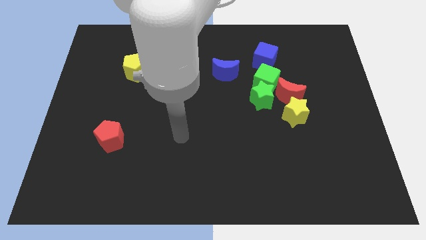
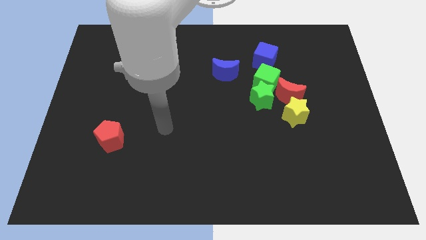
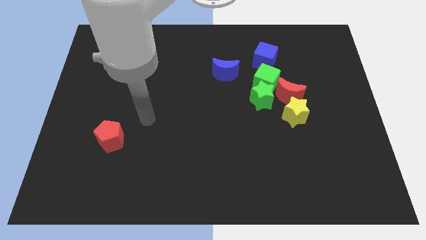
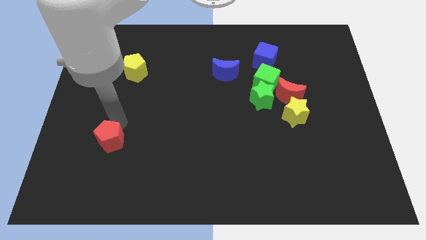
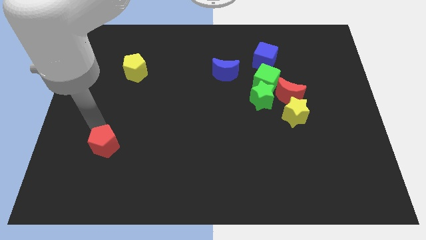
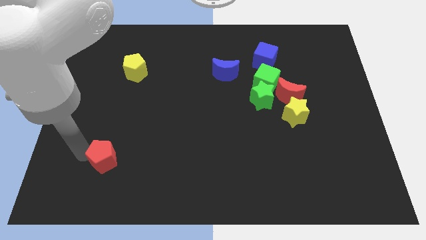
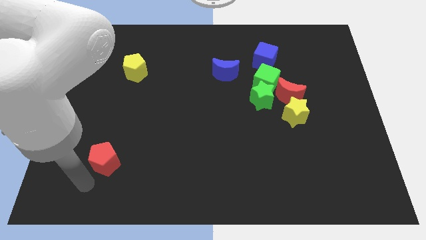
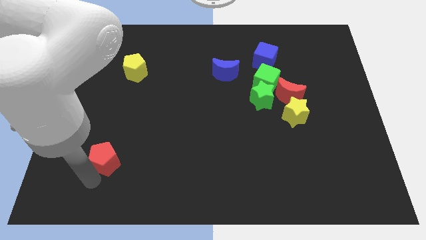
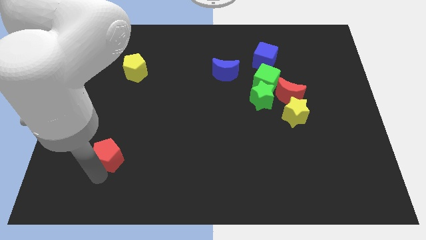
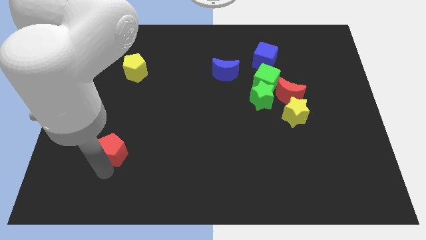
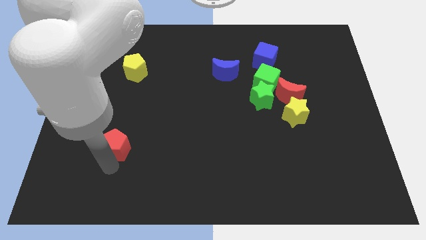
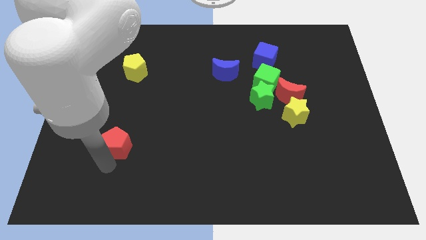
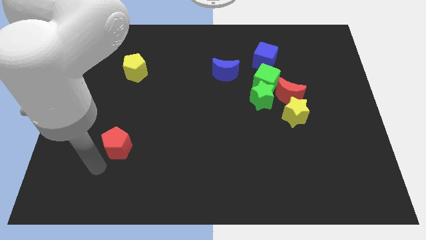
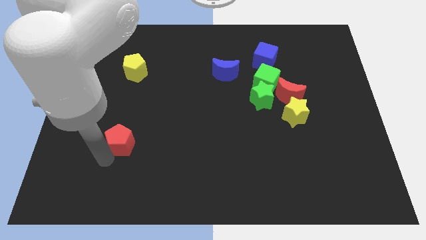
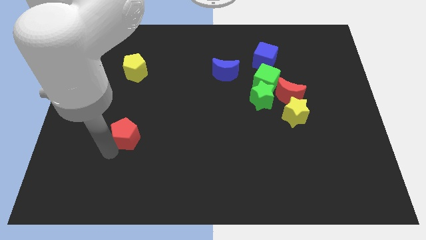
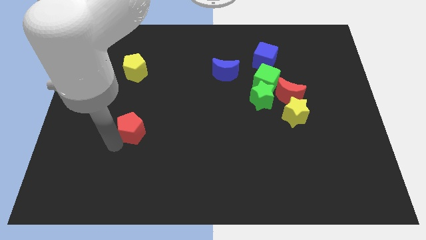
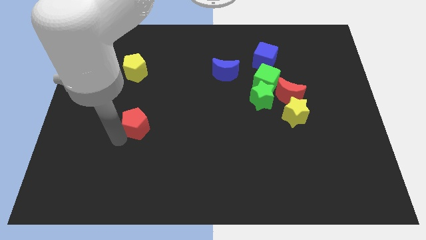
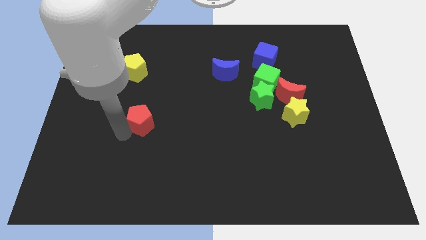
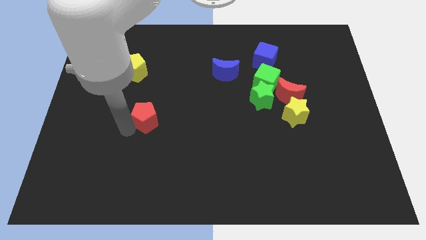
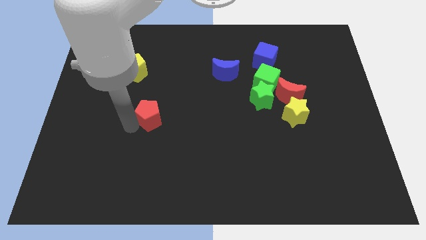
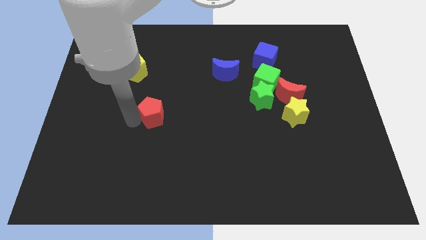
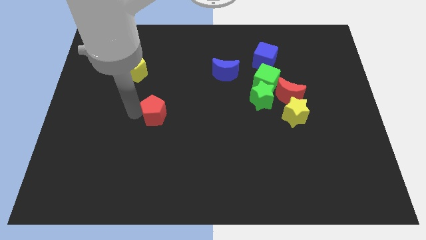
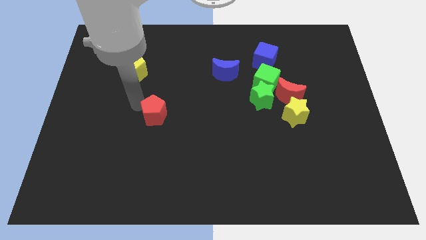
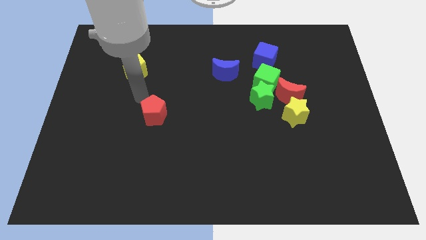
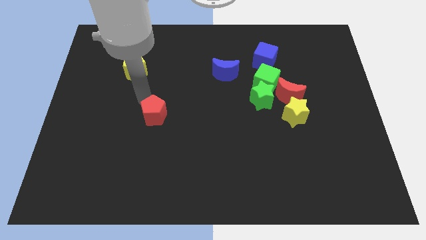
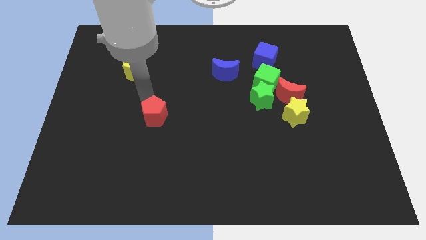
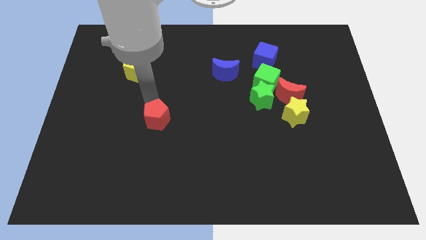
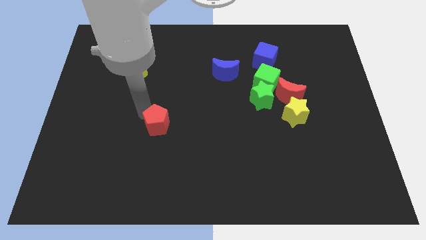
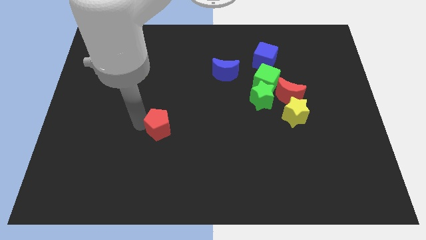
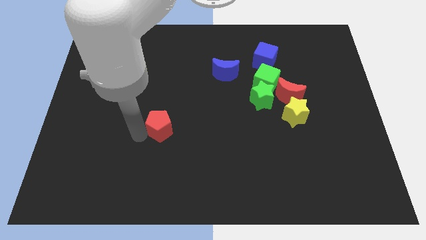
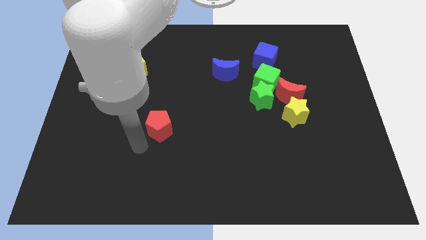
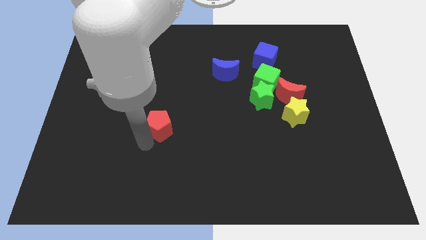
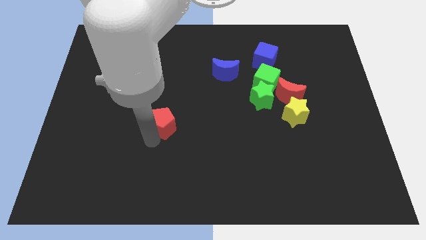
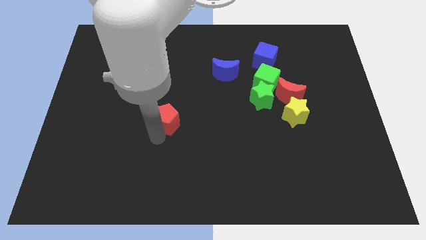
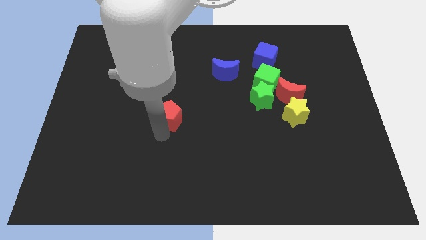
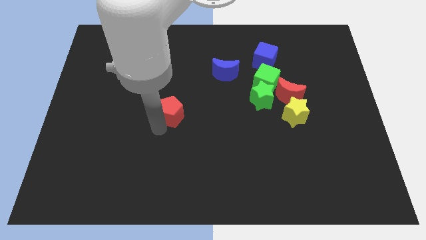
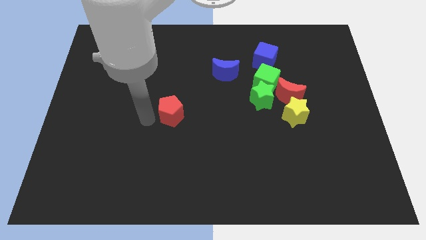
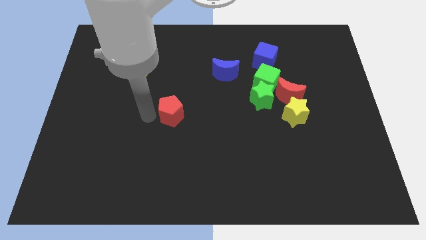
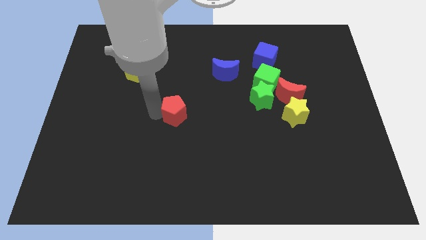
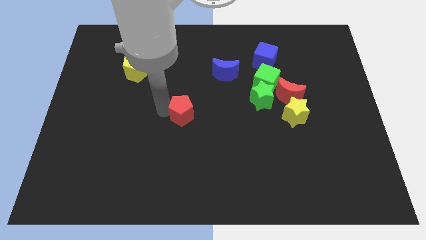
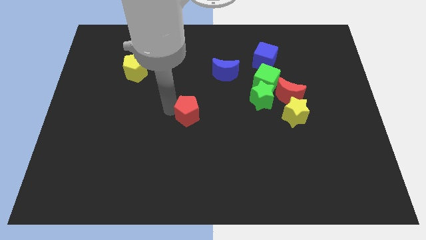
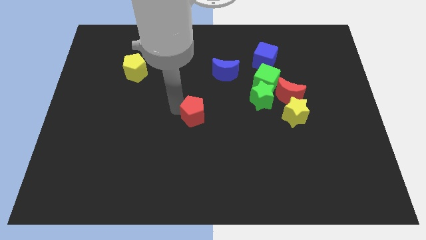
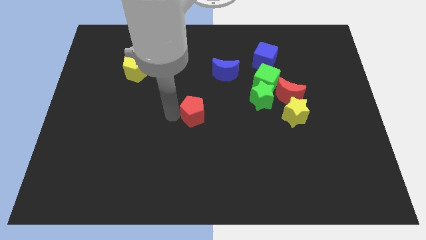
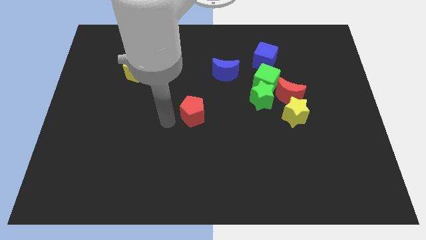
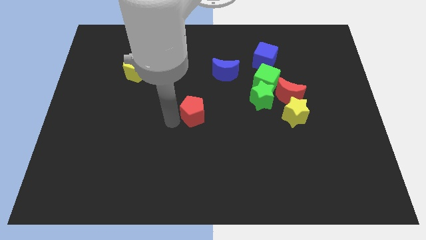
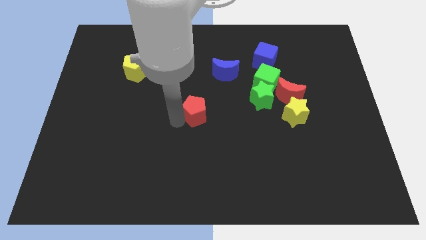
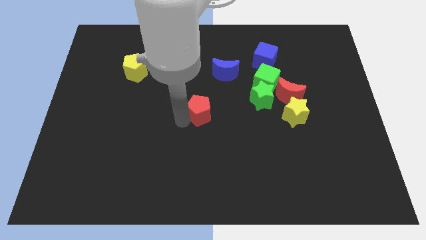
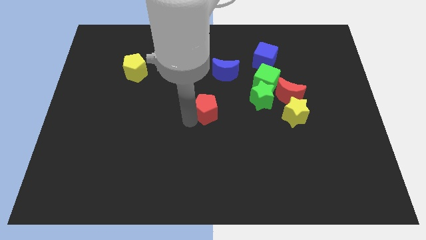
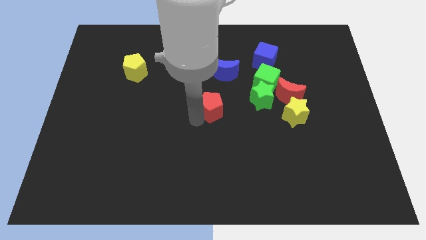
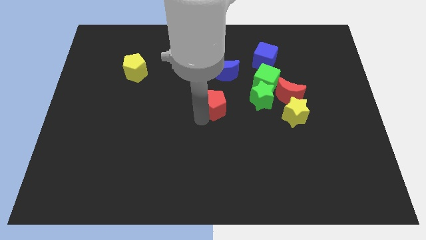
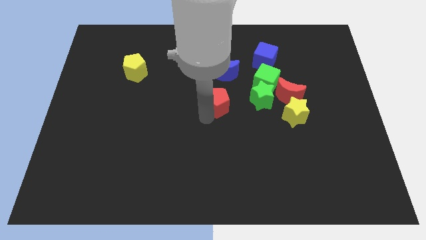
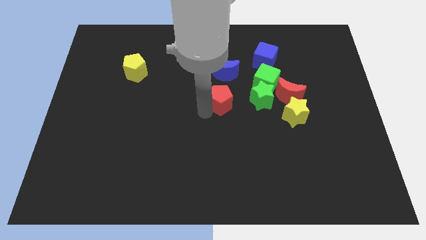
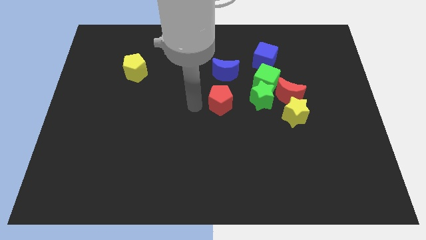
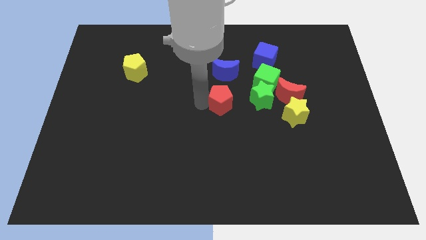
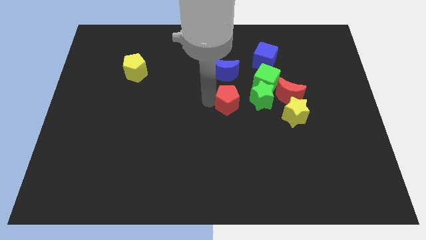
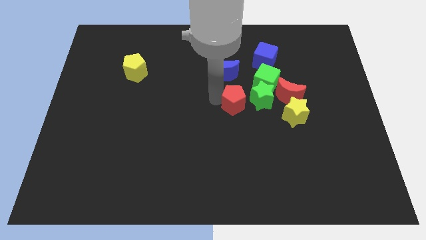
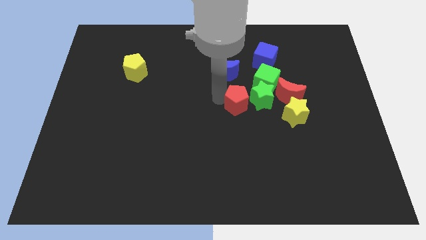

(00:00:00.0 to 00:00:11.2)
move the red pentagon towards the green star
